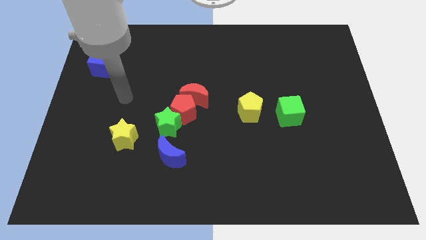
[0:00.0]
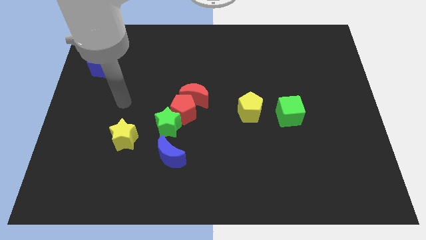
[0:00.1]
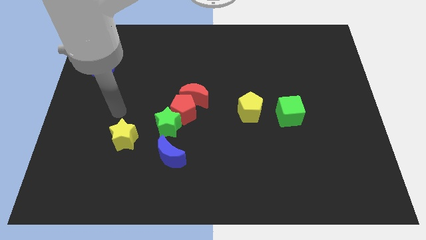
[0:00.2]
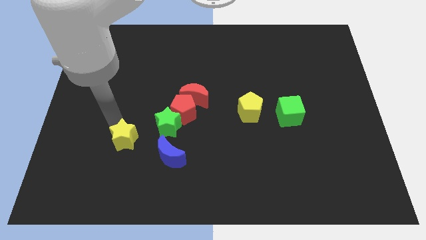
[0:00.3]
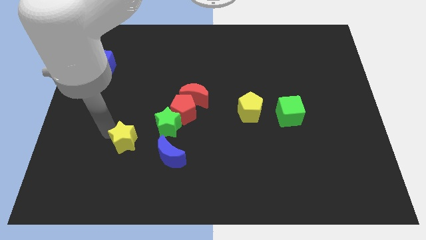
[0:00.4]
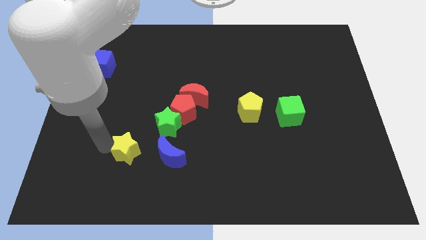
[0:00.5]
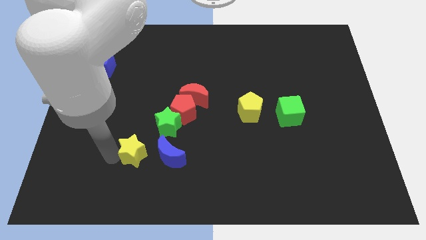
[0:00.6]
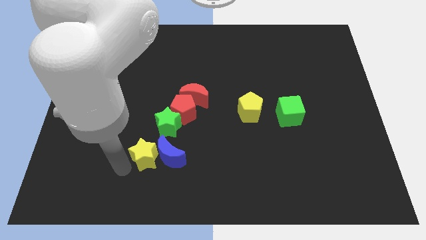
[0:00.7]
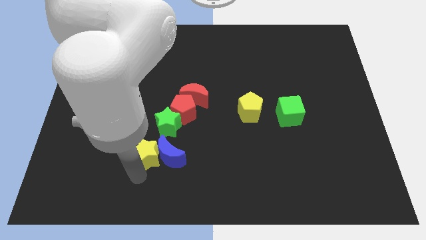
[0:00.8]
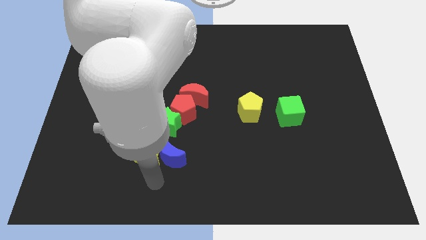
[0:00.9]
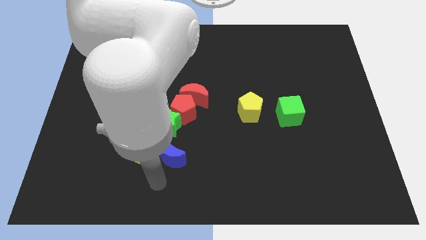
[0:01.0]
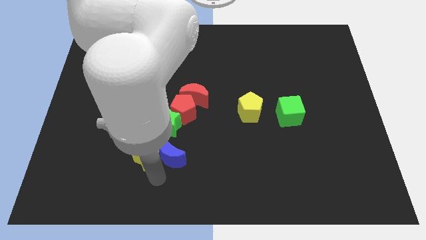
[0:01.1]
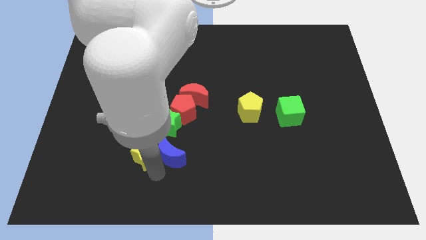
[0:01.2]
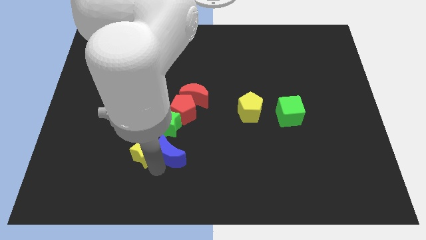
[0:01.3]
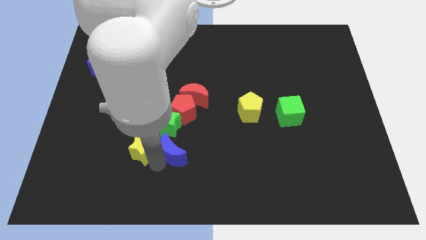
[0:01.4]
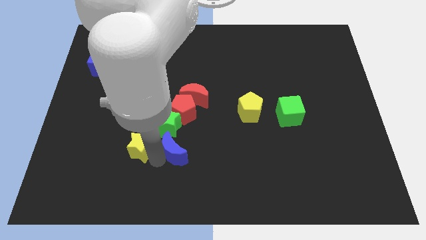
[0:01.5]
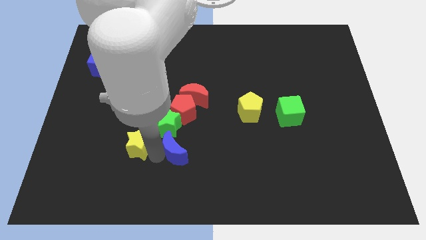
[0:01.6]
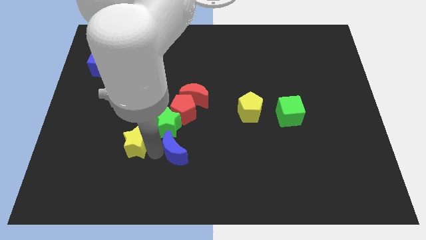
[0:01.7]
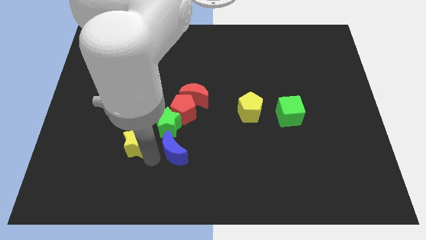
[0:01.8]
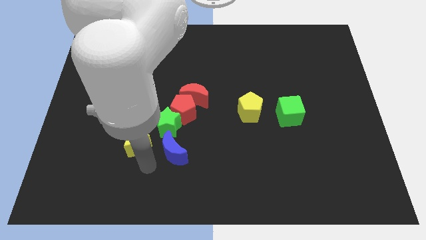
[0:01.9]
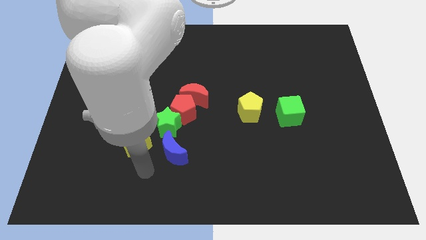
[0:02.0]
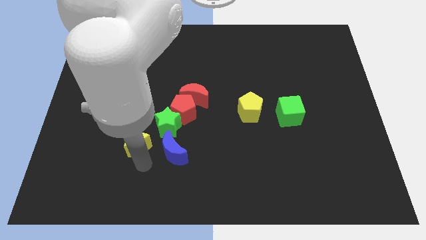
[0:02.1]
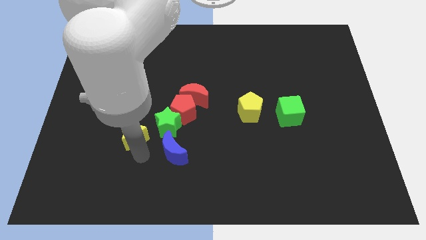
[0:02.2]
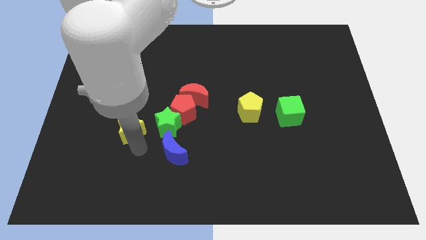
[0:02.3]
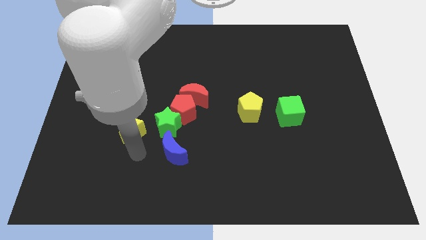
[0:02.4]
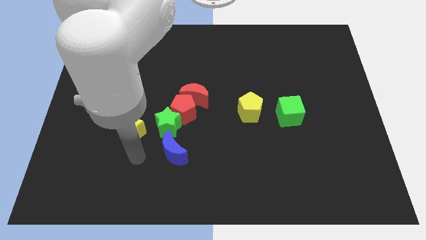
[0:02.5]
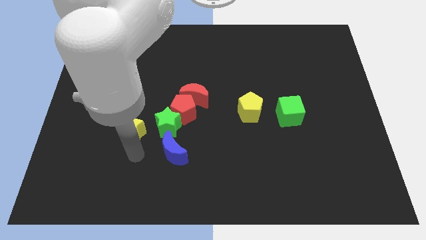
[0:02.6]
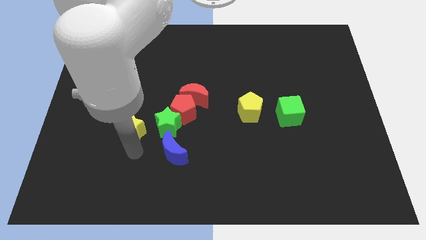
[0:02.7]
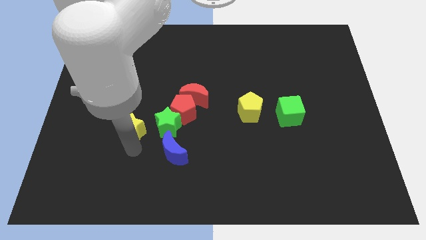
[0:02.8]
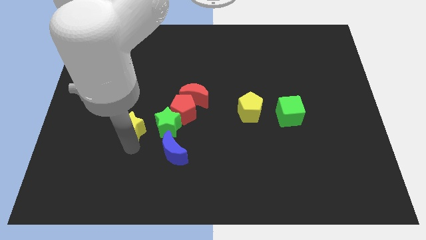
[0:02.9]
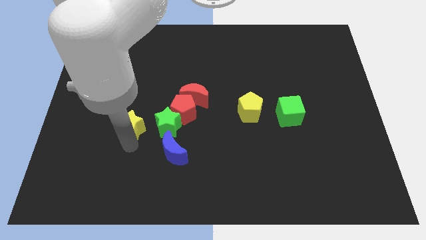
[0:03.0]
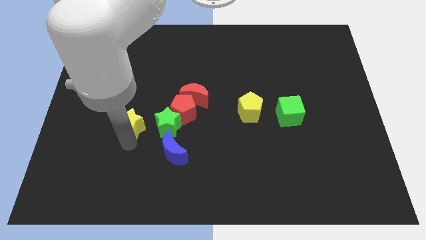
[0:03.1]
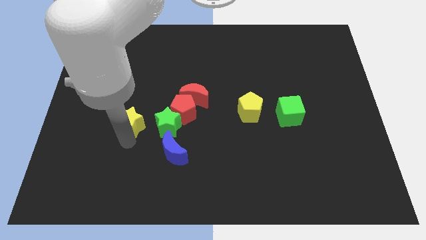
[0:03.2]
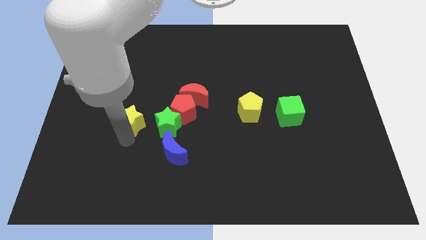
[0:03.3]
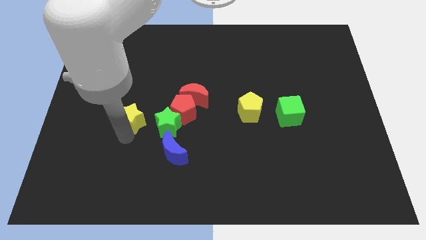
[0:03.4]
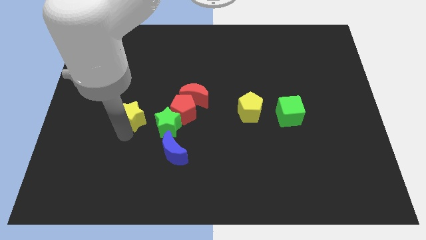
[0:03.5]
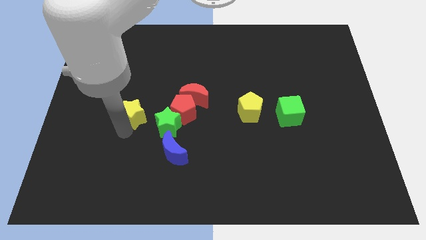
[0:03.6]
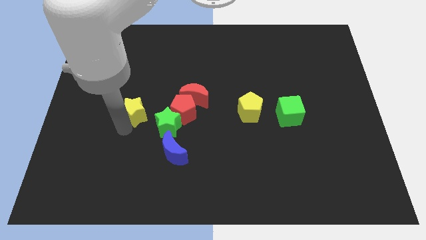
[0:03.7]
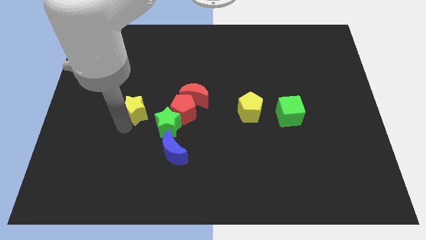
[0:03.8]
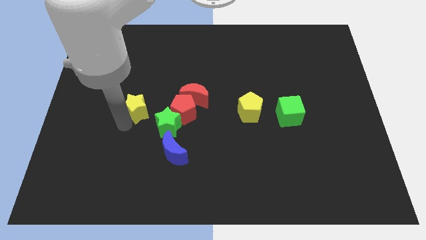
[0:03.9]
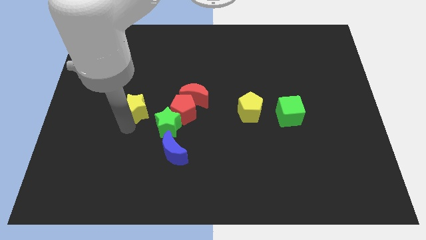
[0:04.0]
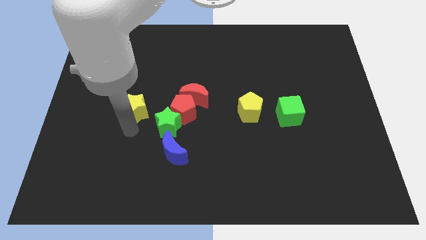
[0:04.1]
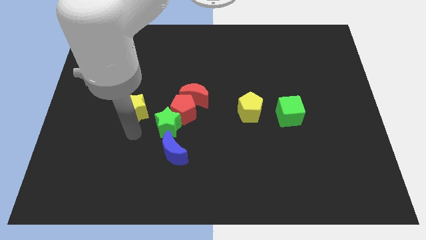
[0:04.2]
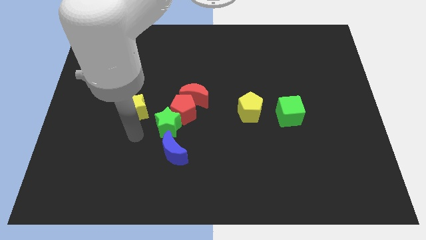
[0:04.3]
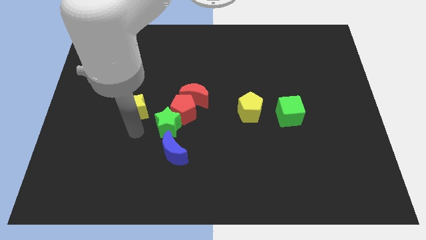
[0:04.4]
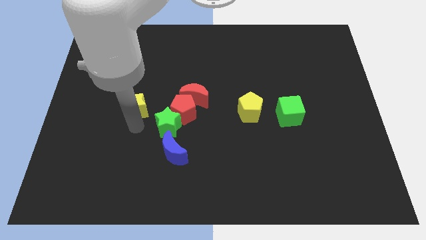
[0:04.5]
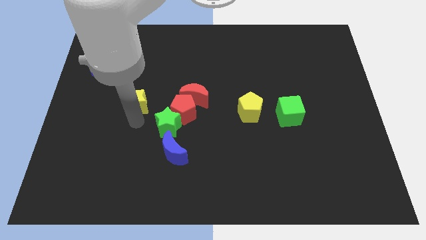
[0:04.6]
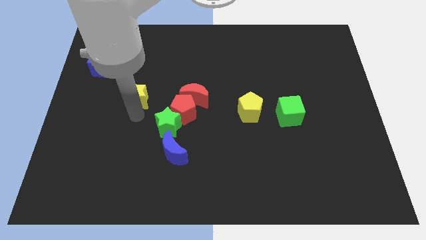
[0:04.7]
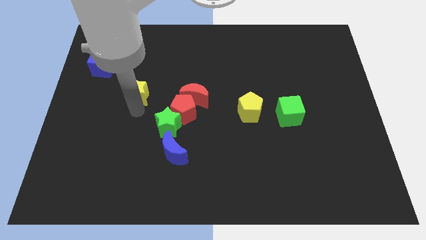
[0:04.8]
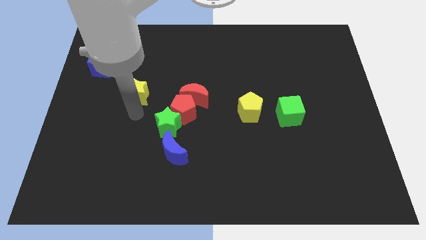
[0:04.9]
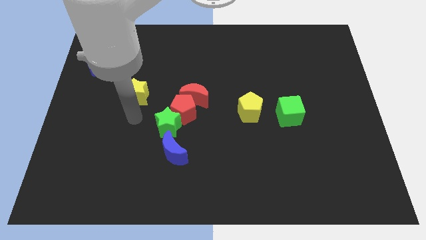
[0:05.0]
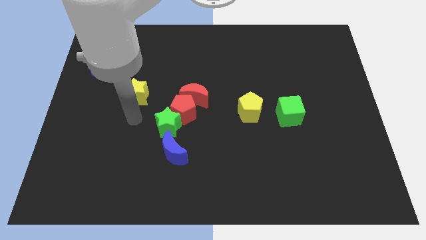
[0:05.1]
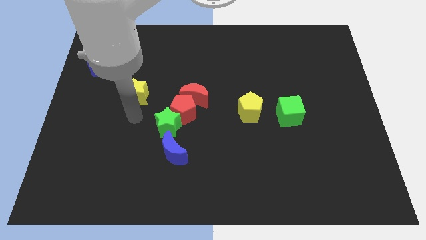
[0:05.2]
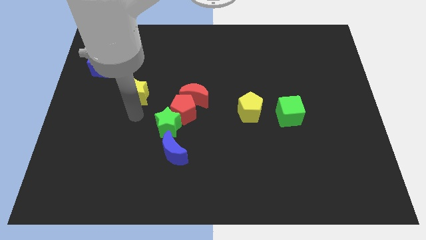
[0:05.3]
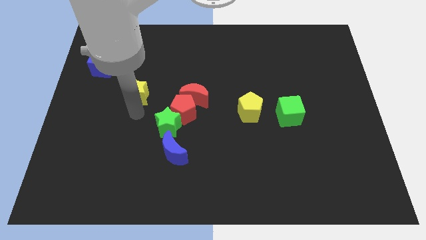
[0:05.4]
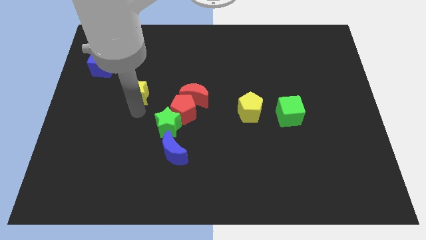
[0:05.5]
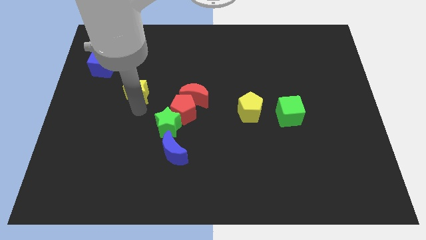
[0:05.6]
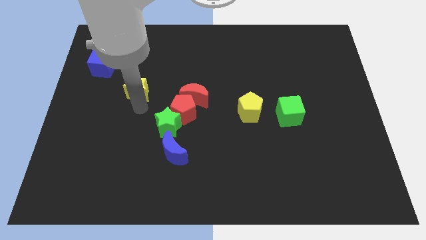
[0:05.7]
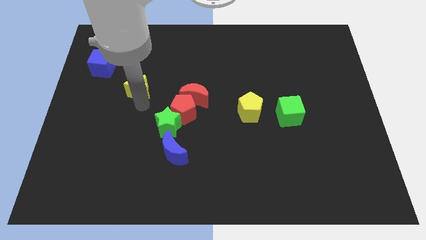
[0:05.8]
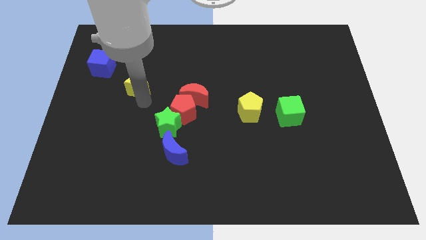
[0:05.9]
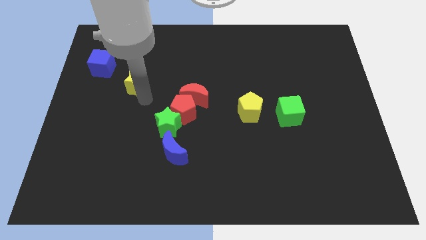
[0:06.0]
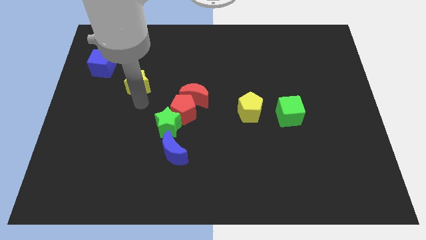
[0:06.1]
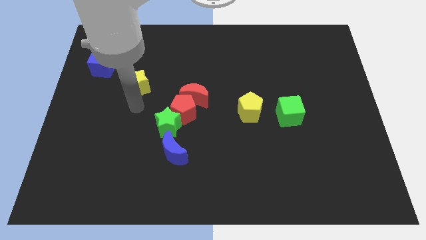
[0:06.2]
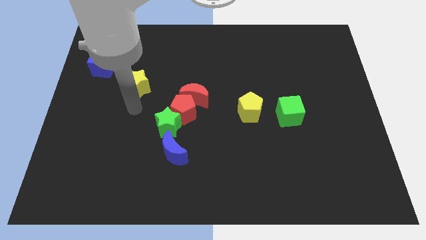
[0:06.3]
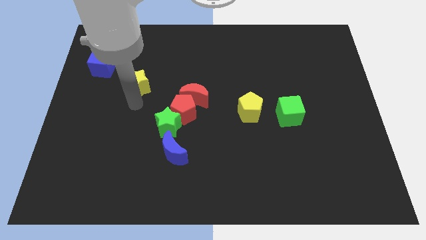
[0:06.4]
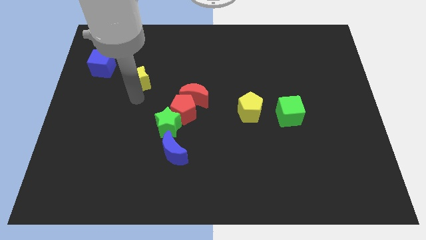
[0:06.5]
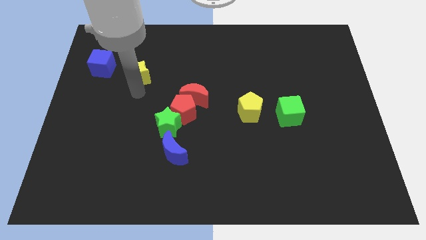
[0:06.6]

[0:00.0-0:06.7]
push the yellow star right of the blue cube

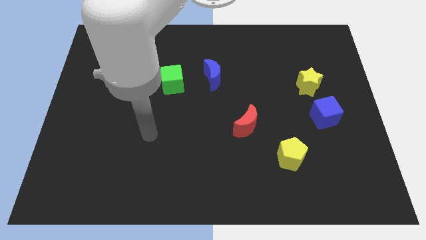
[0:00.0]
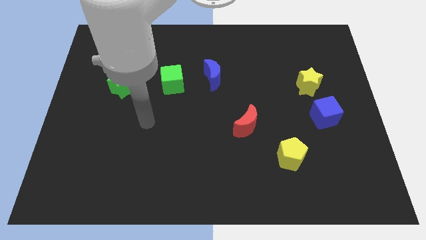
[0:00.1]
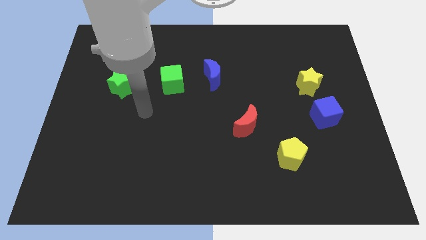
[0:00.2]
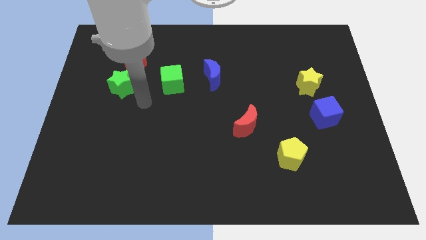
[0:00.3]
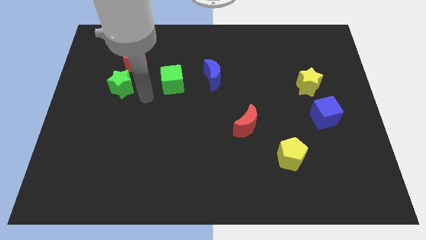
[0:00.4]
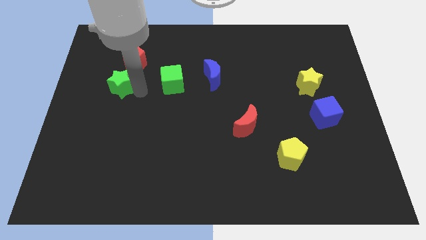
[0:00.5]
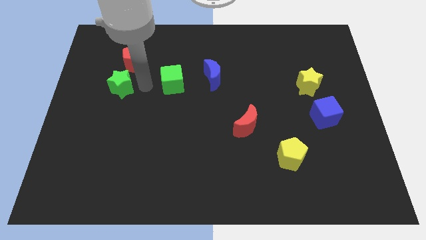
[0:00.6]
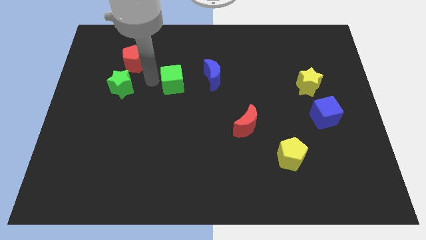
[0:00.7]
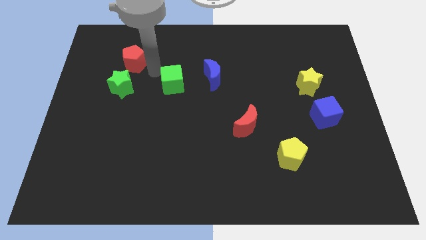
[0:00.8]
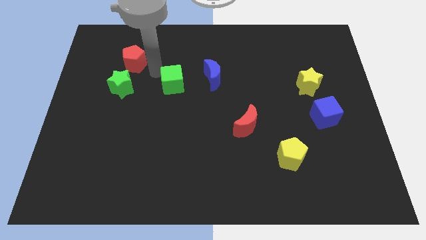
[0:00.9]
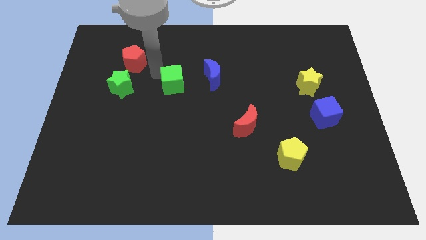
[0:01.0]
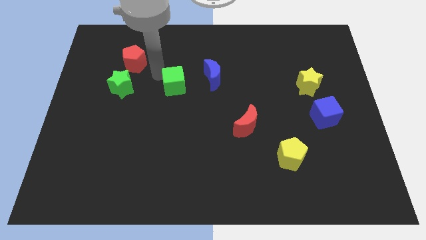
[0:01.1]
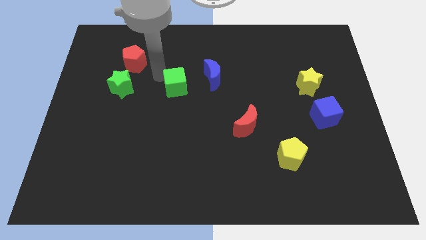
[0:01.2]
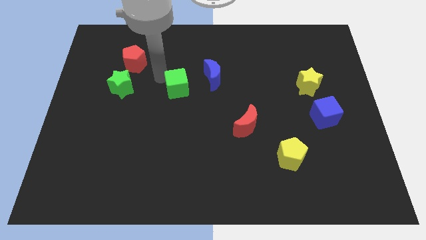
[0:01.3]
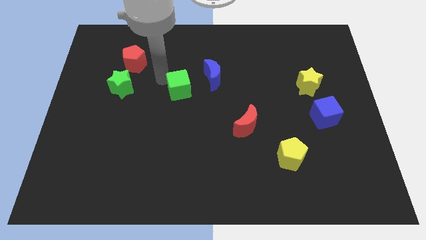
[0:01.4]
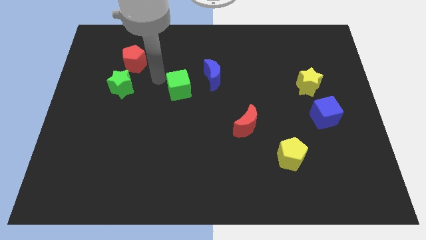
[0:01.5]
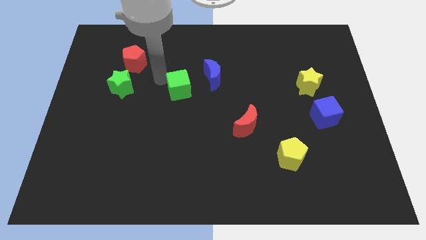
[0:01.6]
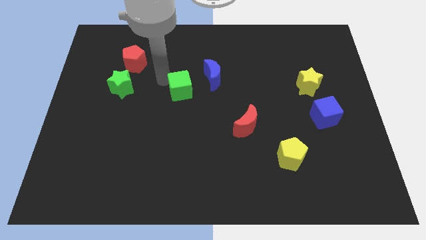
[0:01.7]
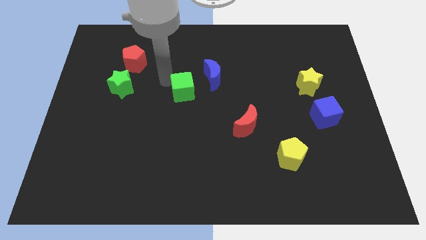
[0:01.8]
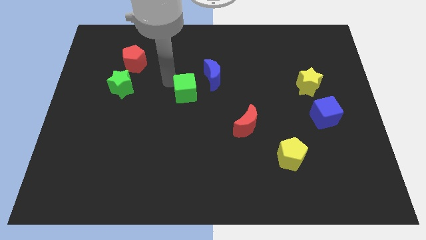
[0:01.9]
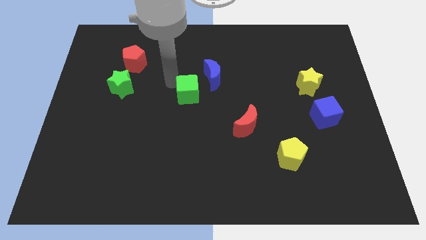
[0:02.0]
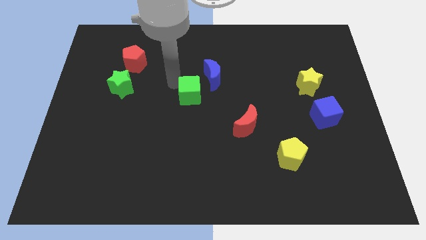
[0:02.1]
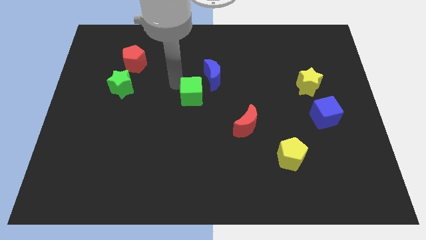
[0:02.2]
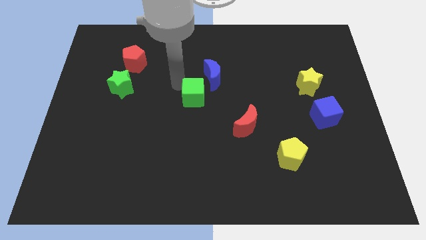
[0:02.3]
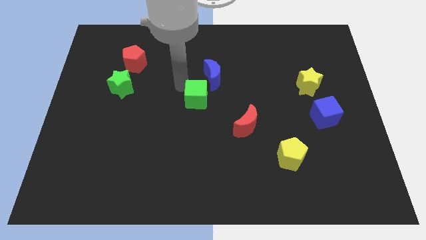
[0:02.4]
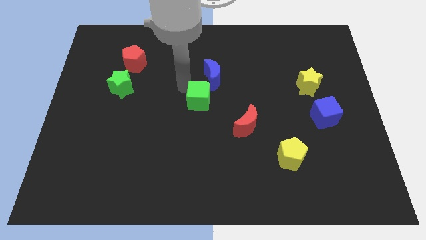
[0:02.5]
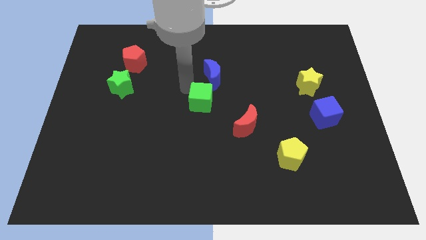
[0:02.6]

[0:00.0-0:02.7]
push the green cube to the top left side of the red moon
